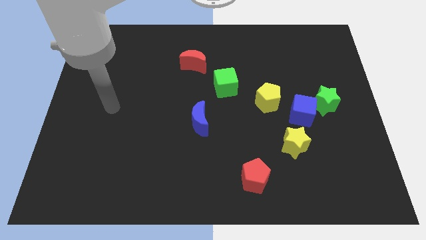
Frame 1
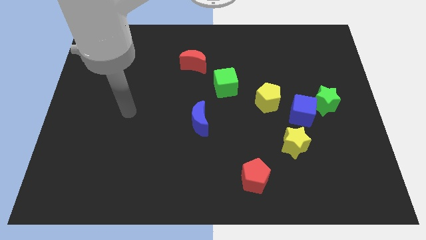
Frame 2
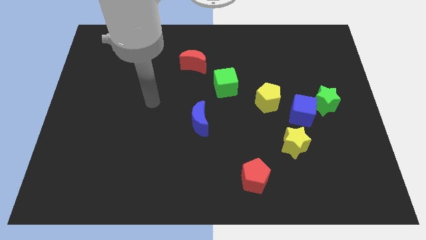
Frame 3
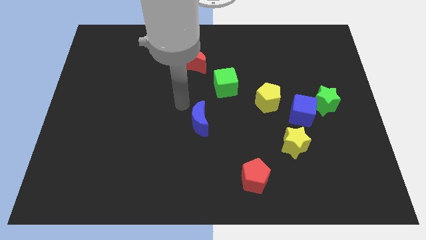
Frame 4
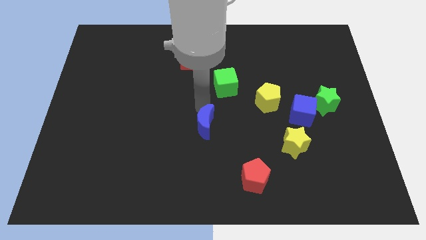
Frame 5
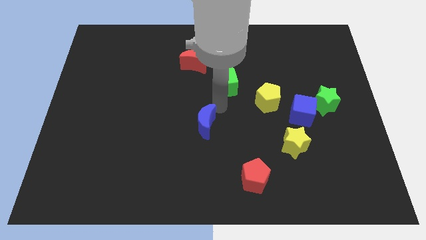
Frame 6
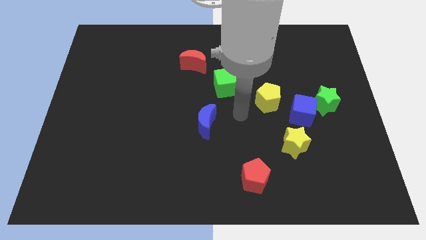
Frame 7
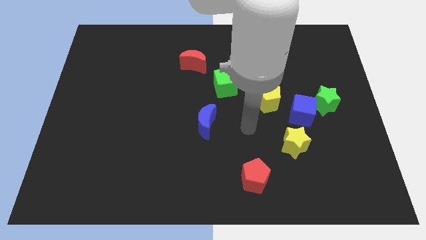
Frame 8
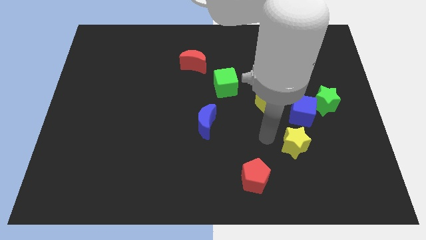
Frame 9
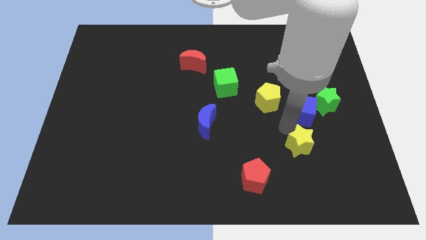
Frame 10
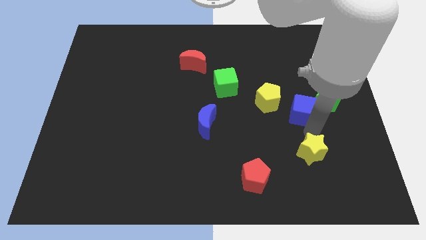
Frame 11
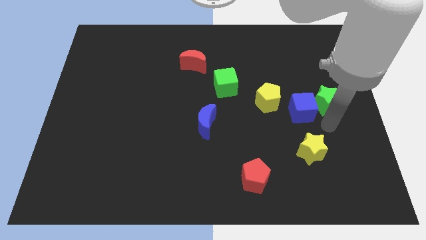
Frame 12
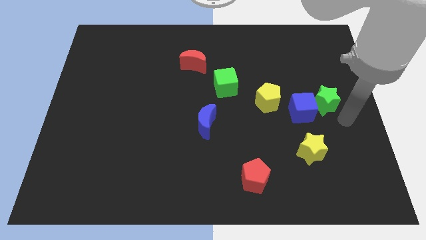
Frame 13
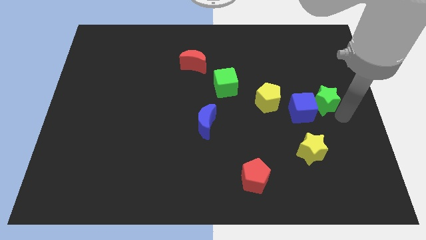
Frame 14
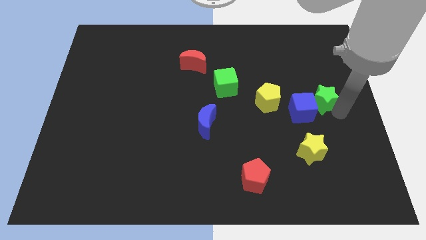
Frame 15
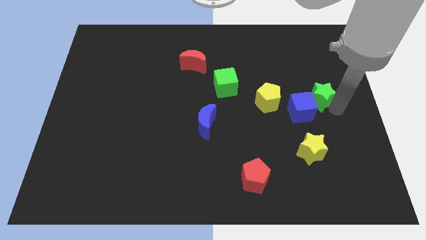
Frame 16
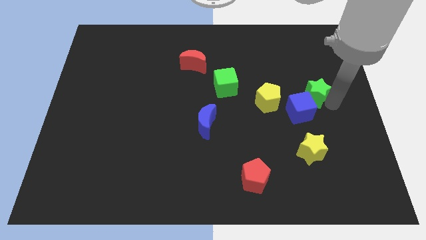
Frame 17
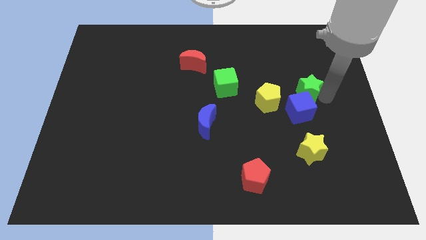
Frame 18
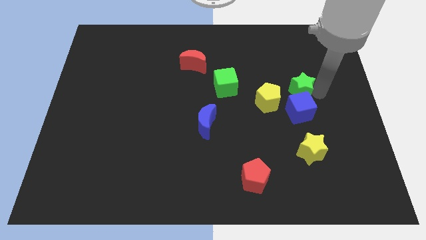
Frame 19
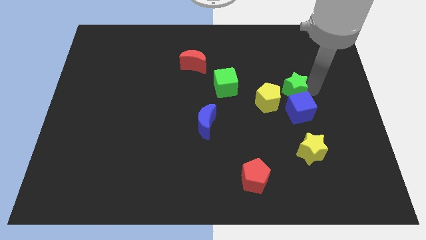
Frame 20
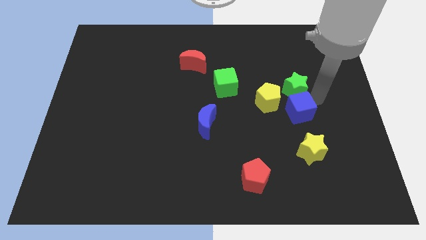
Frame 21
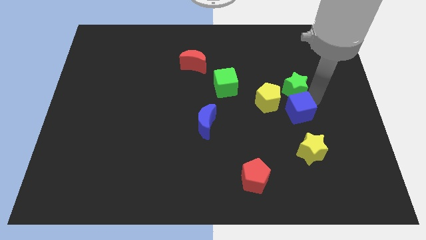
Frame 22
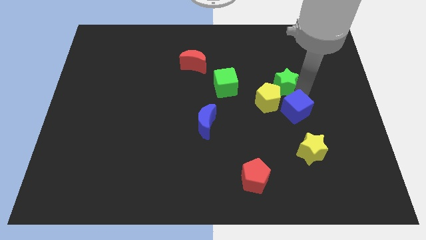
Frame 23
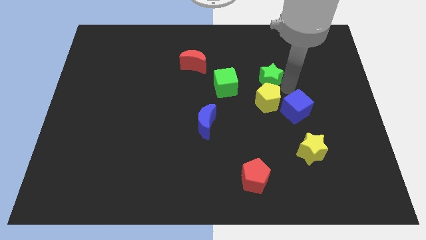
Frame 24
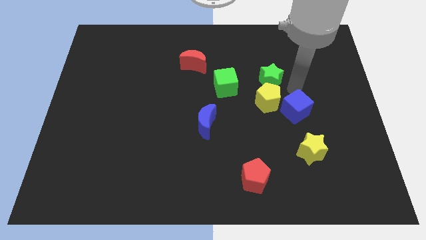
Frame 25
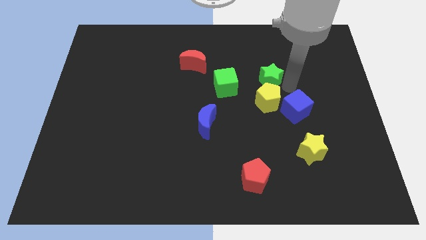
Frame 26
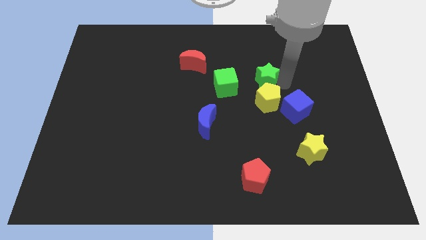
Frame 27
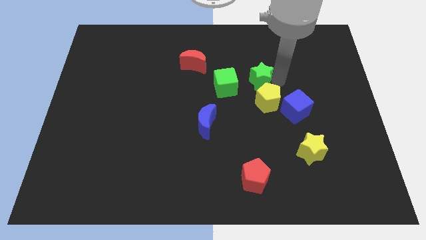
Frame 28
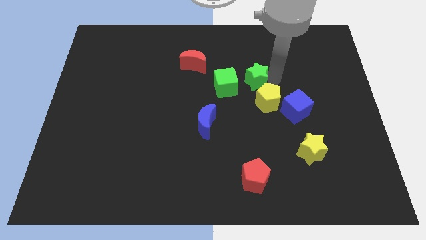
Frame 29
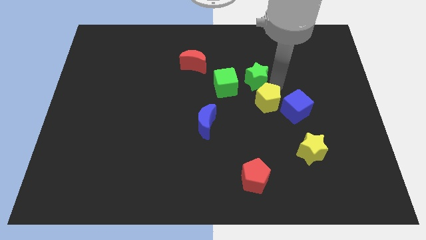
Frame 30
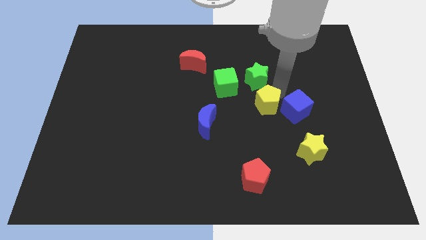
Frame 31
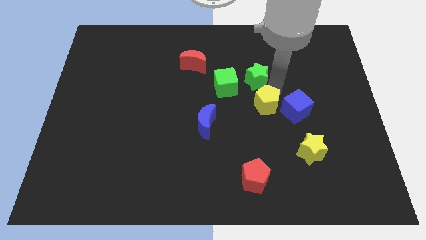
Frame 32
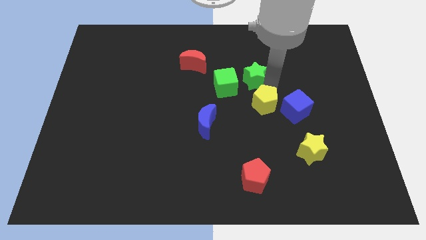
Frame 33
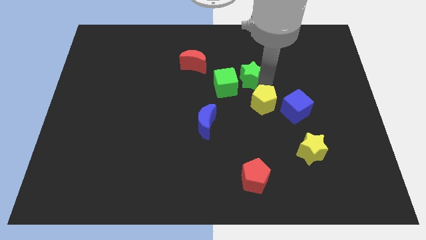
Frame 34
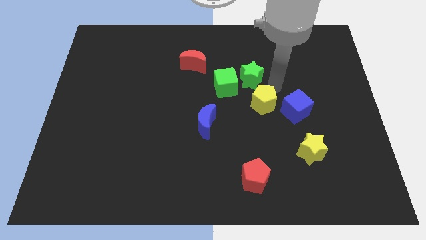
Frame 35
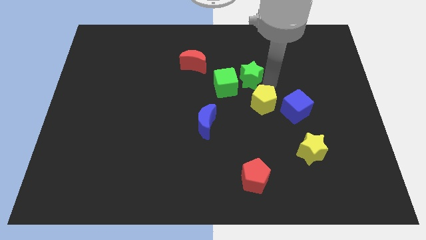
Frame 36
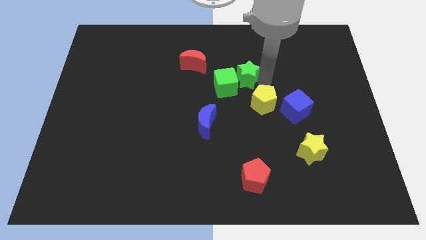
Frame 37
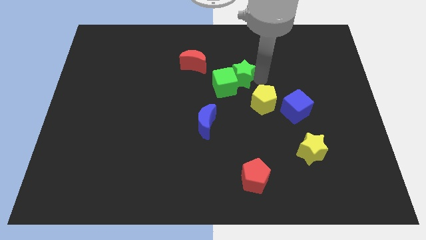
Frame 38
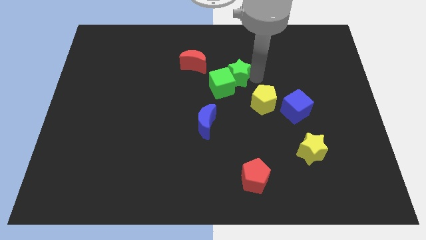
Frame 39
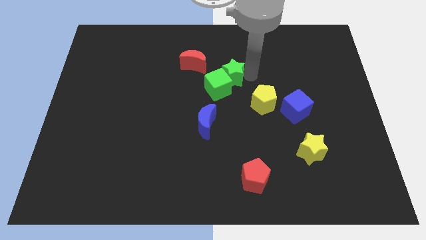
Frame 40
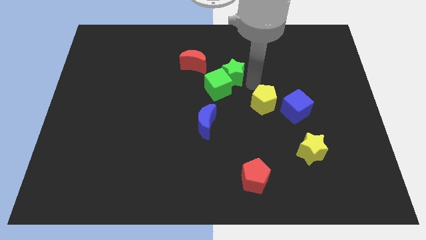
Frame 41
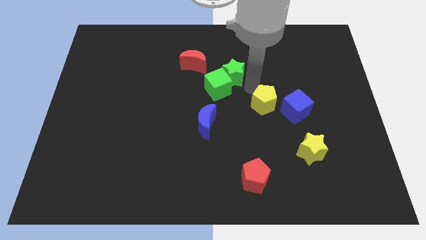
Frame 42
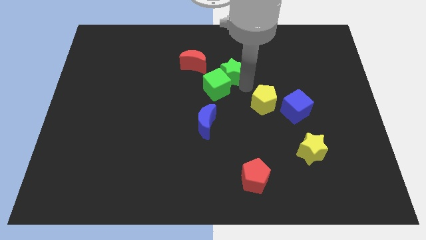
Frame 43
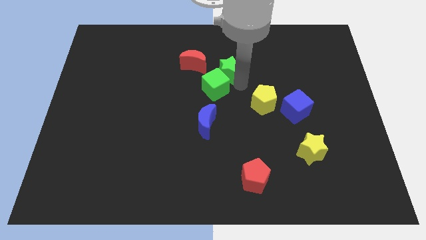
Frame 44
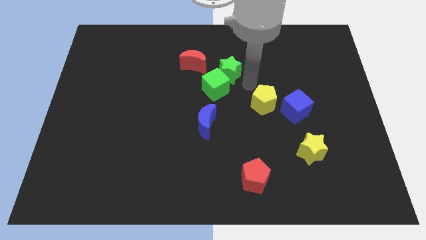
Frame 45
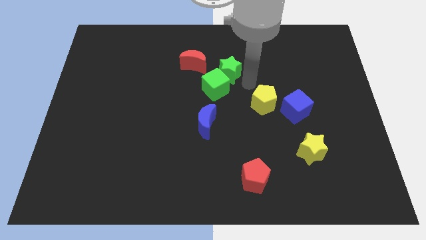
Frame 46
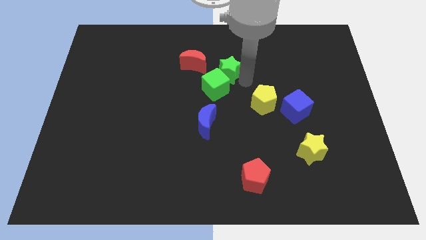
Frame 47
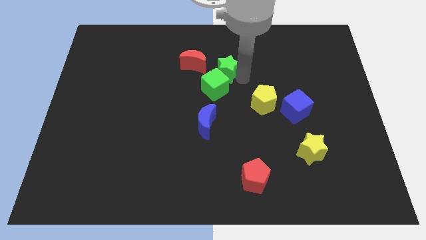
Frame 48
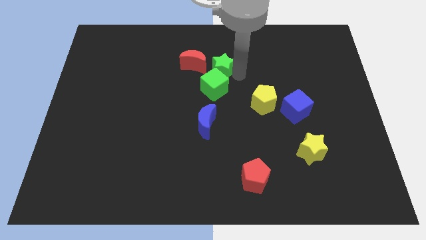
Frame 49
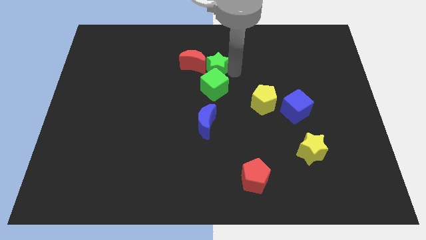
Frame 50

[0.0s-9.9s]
move the green star to the red moon

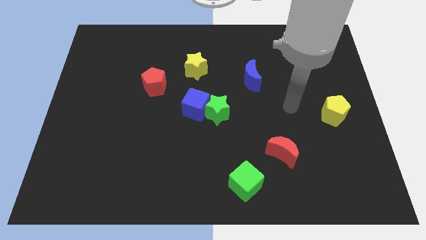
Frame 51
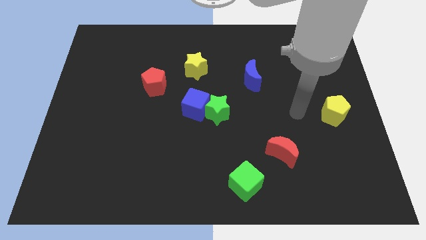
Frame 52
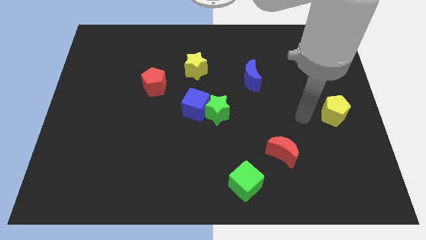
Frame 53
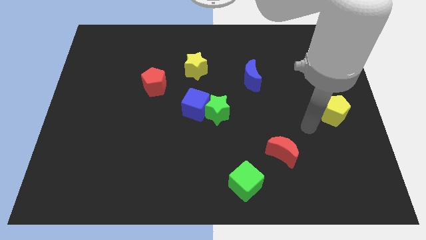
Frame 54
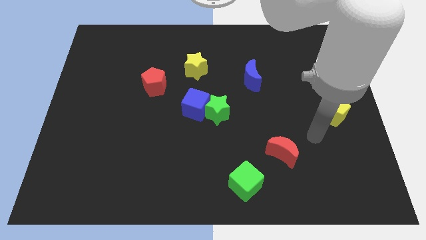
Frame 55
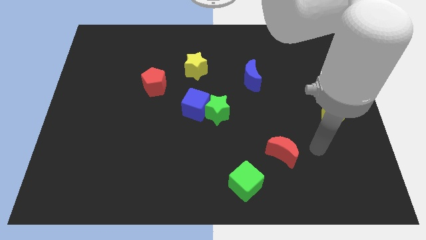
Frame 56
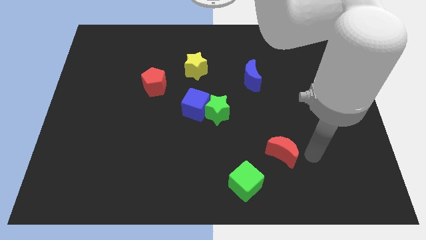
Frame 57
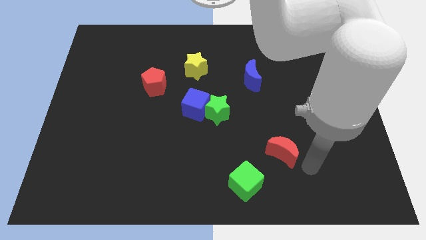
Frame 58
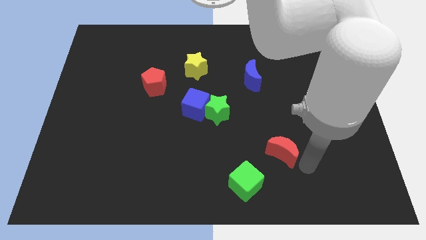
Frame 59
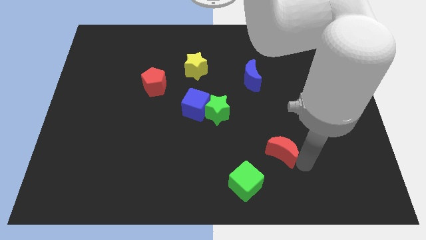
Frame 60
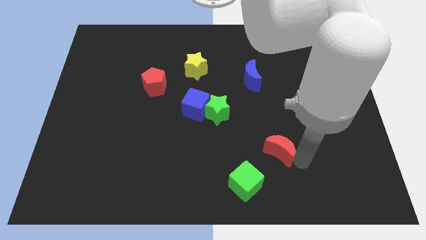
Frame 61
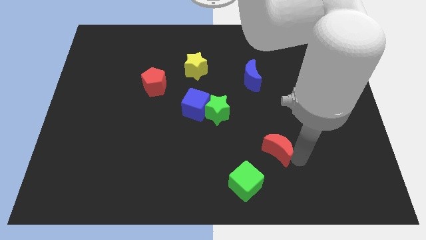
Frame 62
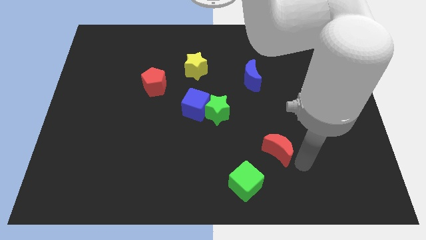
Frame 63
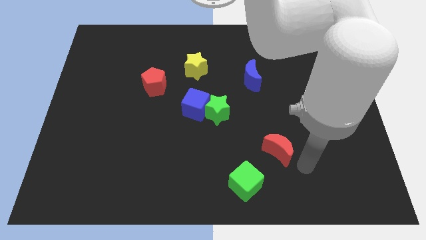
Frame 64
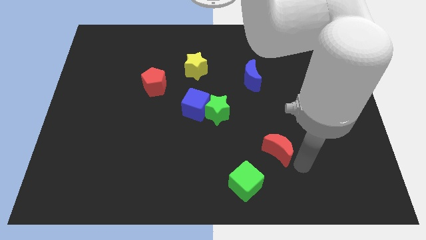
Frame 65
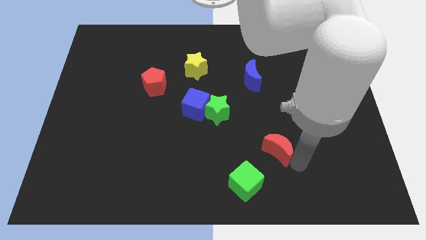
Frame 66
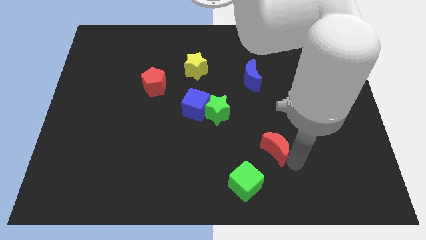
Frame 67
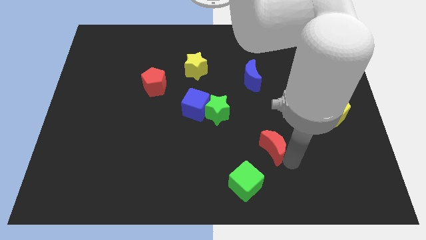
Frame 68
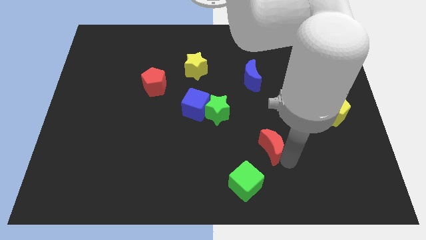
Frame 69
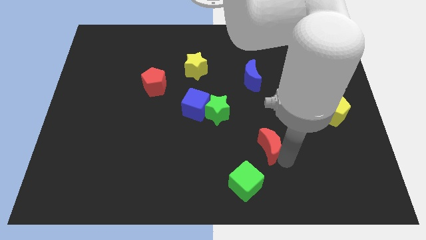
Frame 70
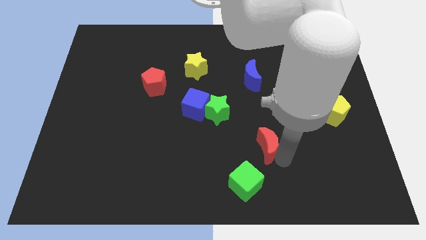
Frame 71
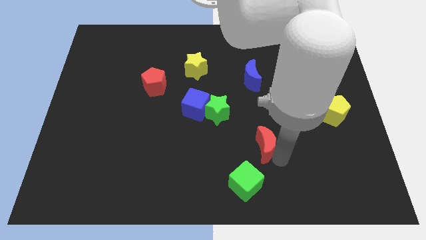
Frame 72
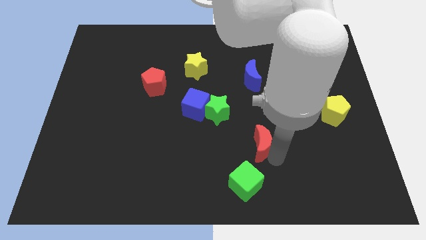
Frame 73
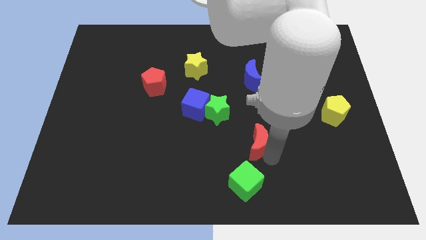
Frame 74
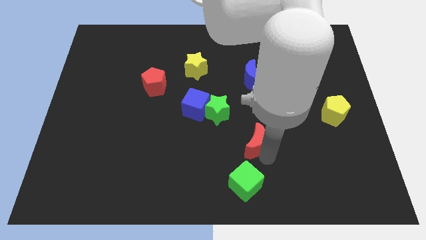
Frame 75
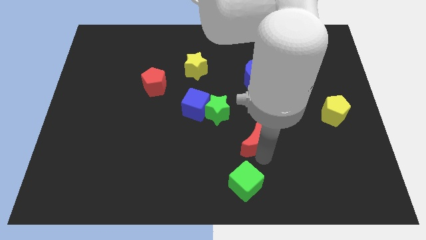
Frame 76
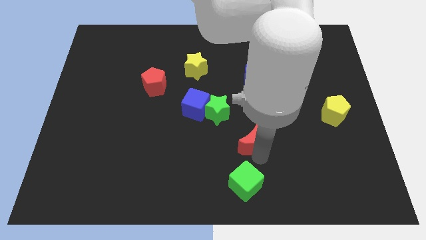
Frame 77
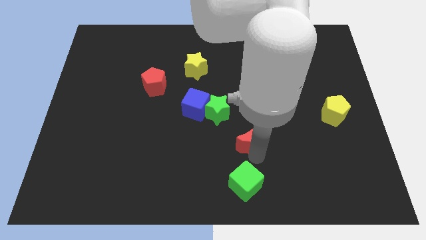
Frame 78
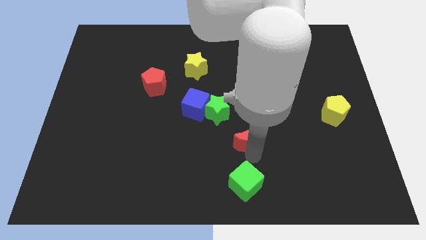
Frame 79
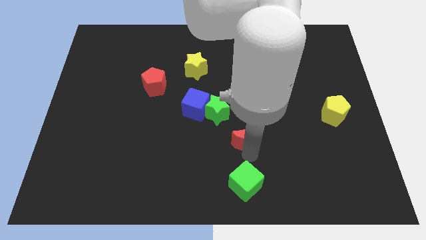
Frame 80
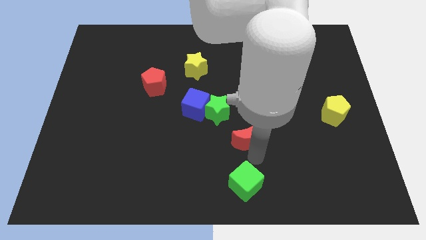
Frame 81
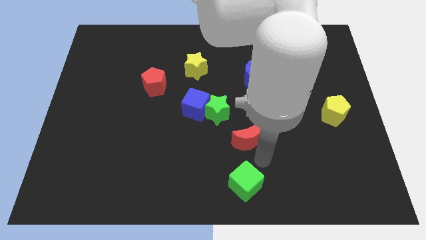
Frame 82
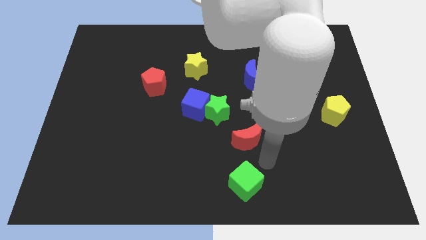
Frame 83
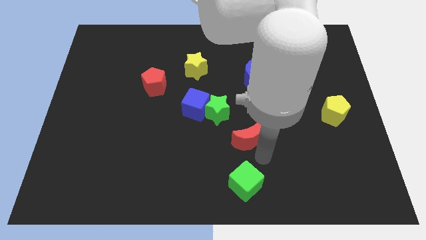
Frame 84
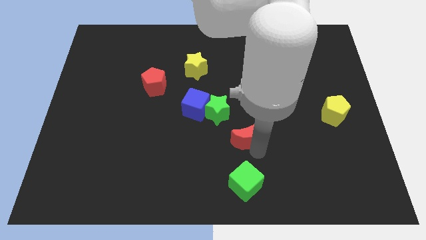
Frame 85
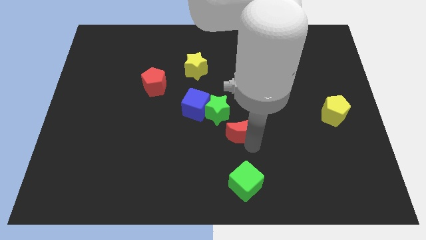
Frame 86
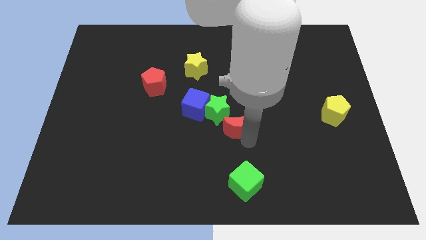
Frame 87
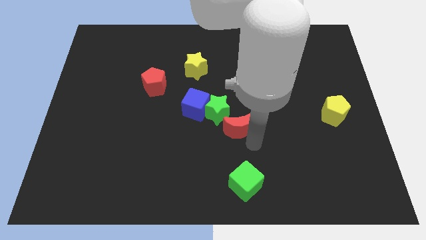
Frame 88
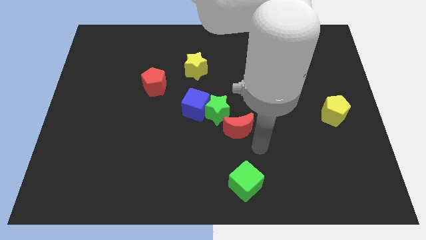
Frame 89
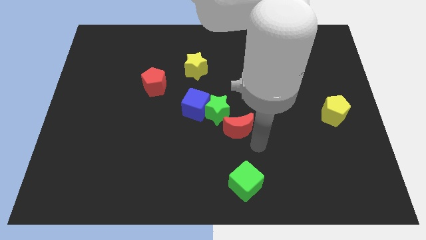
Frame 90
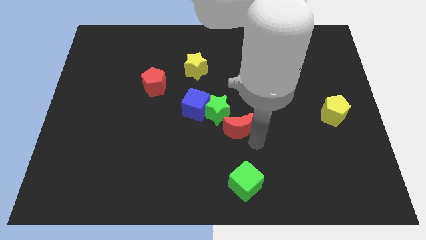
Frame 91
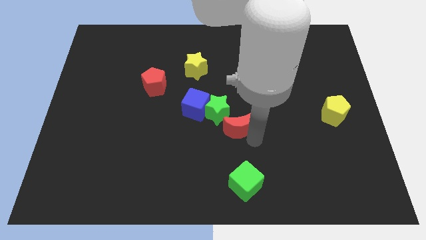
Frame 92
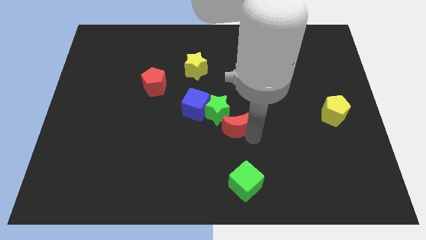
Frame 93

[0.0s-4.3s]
slide the red moon close to the green star
